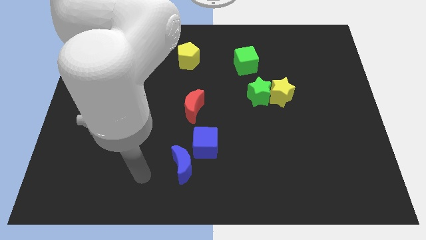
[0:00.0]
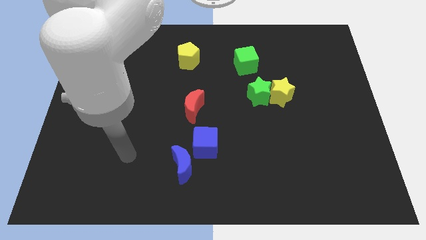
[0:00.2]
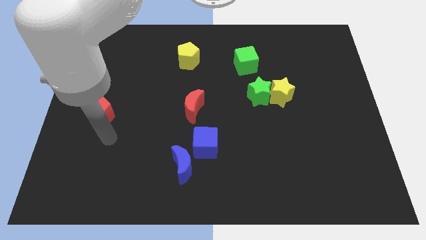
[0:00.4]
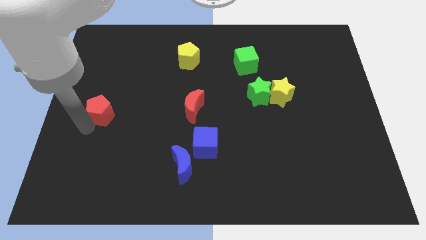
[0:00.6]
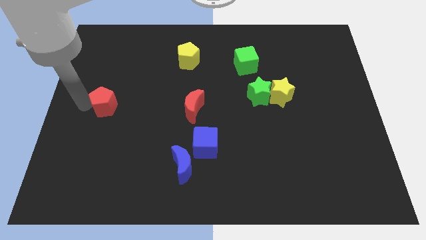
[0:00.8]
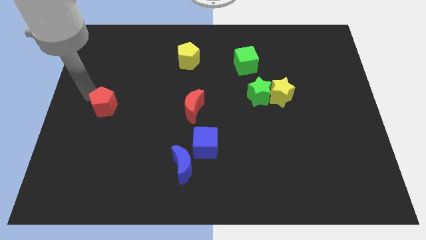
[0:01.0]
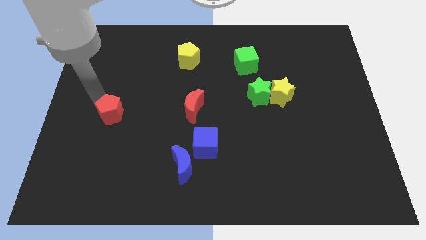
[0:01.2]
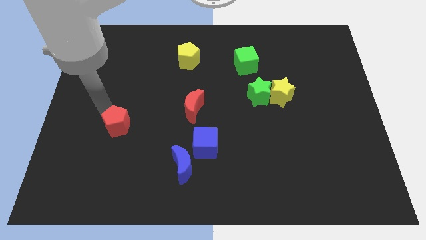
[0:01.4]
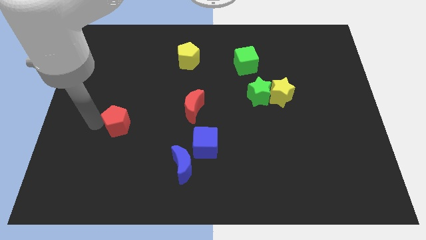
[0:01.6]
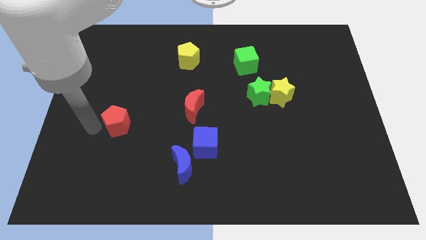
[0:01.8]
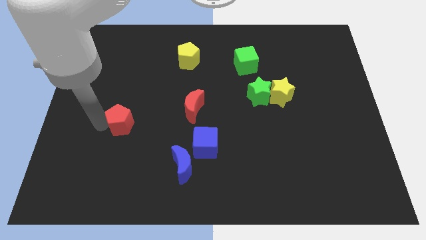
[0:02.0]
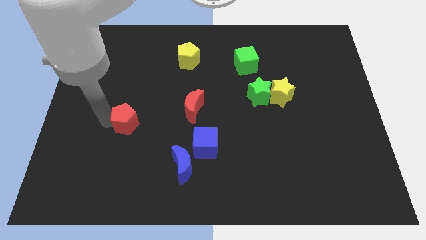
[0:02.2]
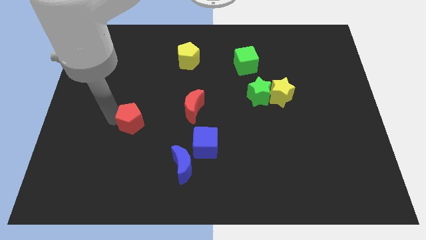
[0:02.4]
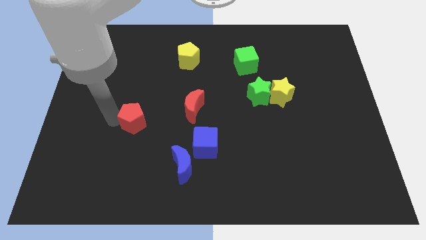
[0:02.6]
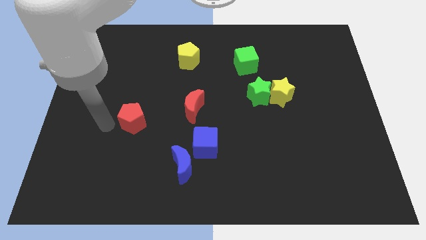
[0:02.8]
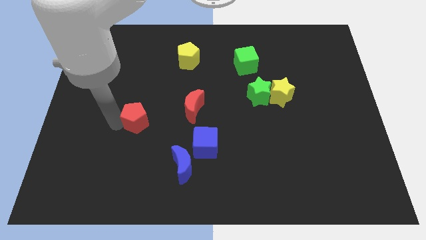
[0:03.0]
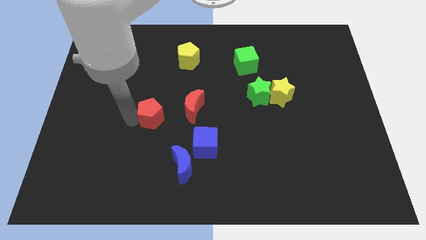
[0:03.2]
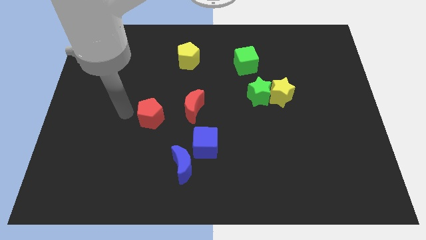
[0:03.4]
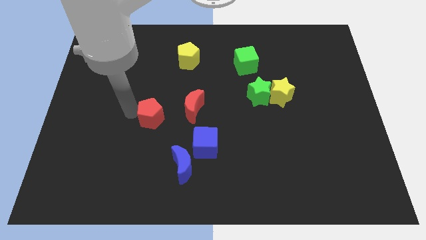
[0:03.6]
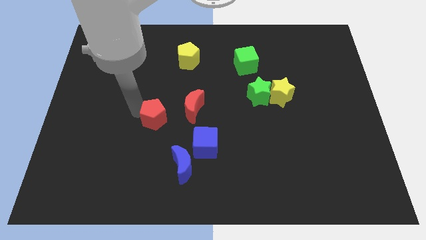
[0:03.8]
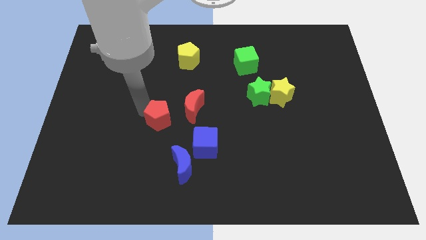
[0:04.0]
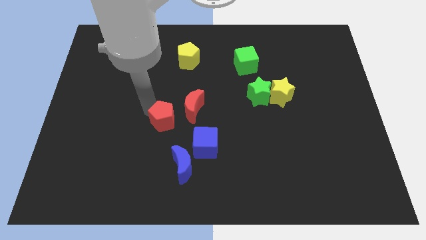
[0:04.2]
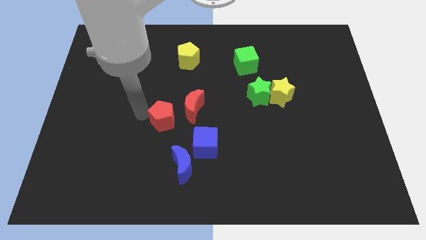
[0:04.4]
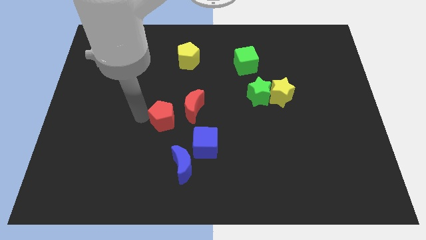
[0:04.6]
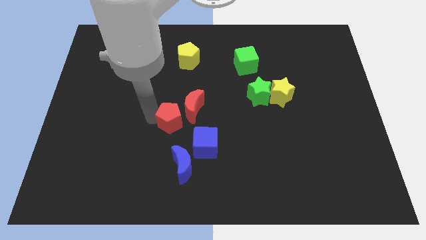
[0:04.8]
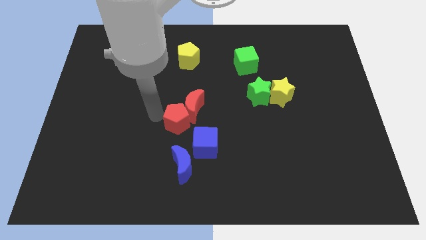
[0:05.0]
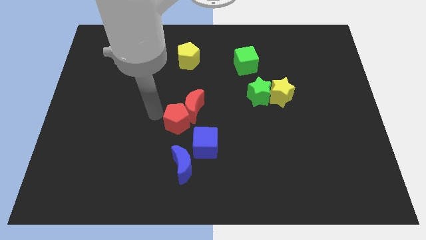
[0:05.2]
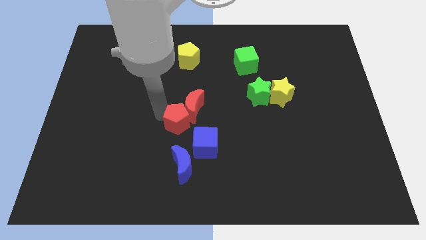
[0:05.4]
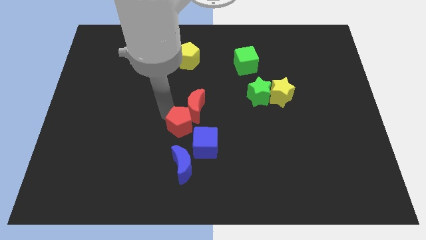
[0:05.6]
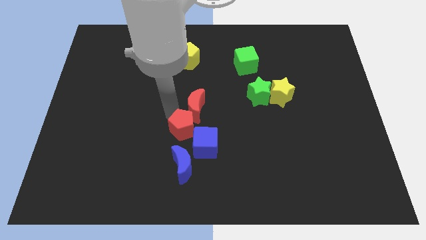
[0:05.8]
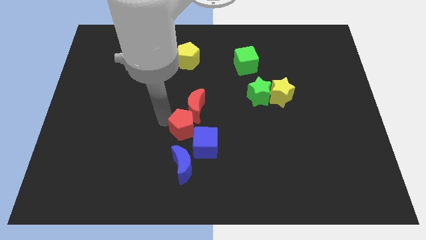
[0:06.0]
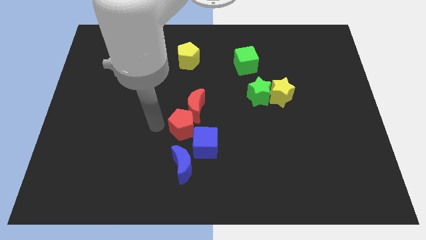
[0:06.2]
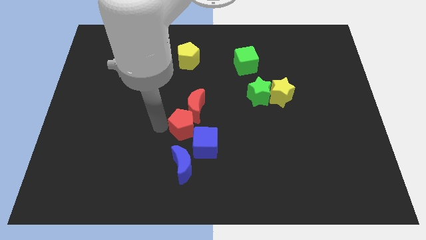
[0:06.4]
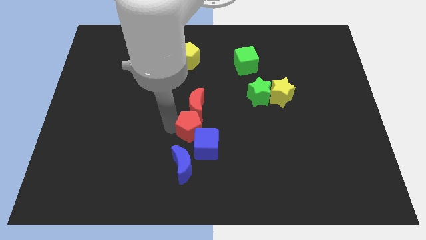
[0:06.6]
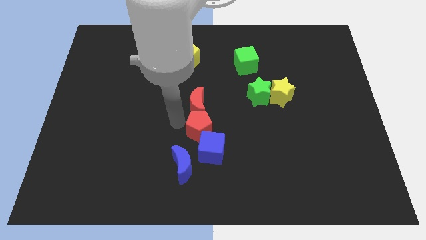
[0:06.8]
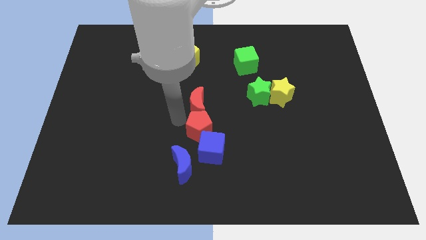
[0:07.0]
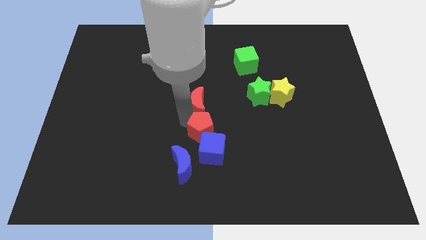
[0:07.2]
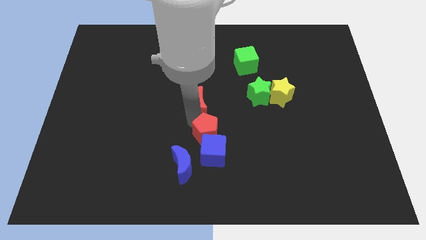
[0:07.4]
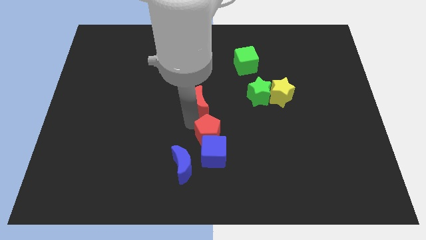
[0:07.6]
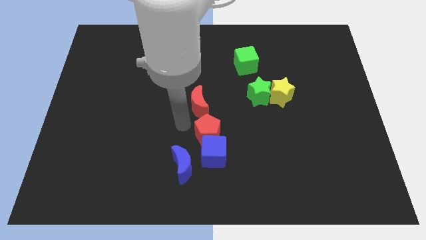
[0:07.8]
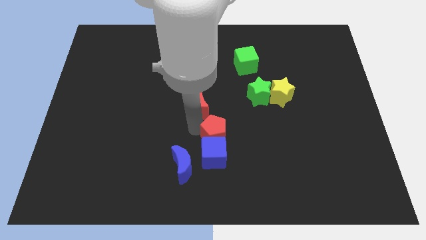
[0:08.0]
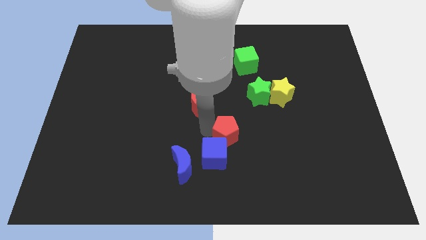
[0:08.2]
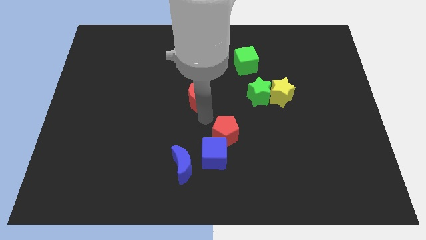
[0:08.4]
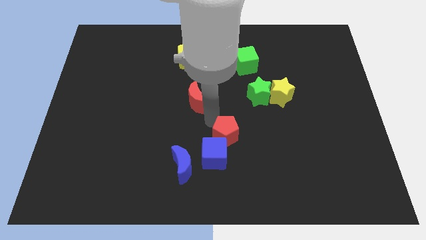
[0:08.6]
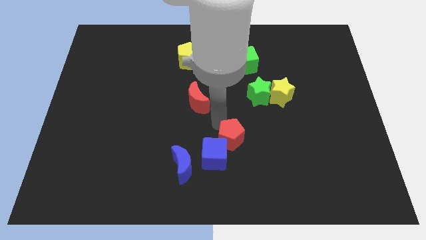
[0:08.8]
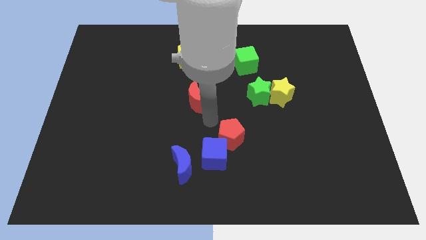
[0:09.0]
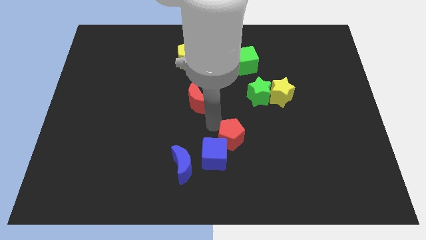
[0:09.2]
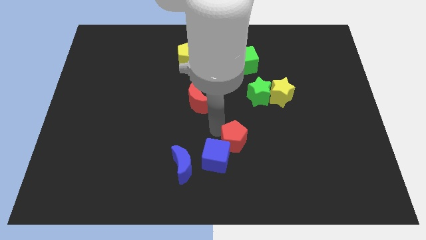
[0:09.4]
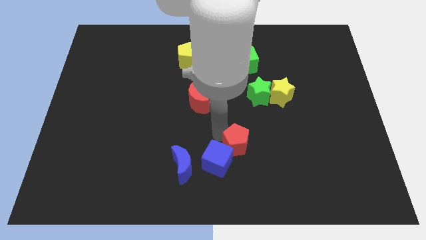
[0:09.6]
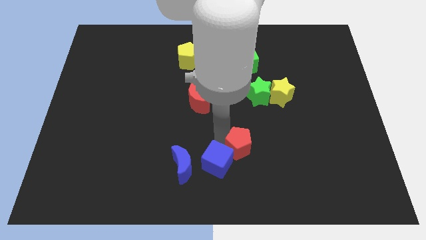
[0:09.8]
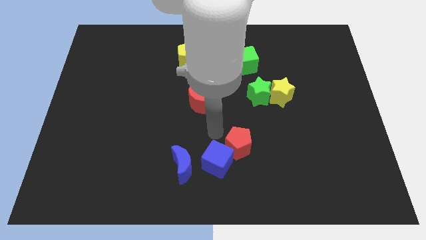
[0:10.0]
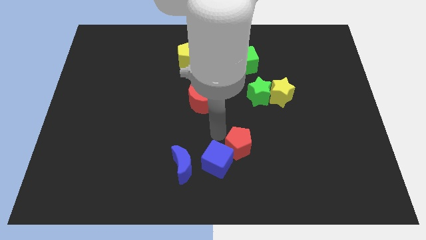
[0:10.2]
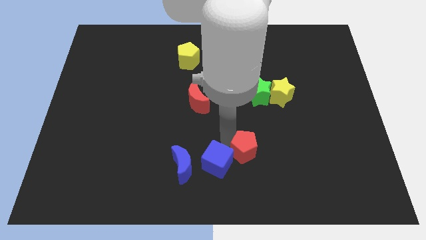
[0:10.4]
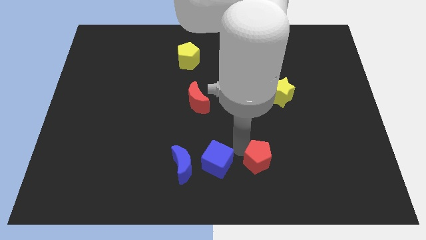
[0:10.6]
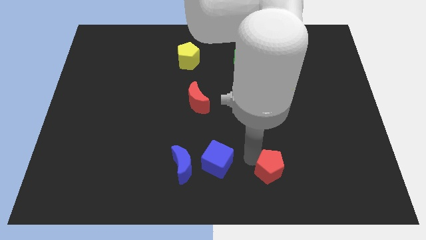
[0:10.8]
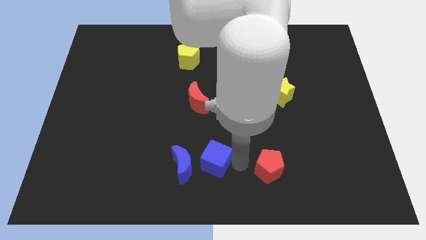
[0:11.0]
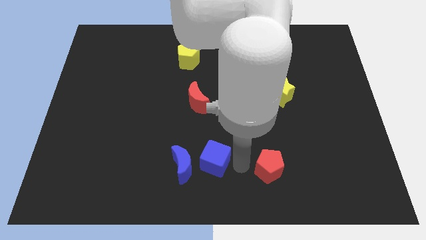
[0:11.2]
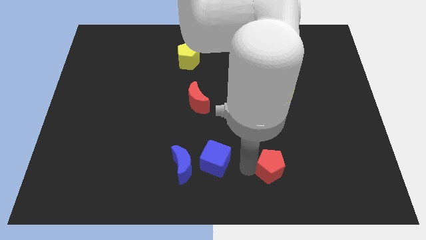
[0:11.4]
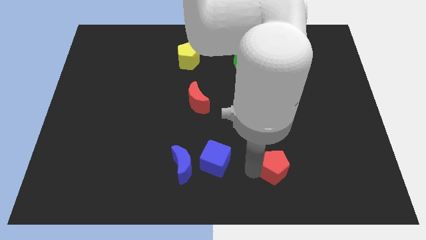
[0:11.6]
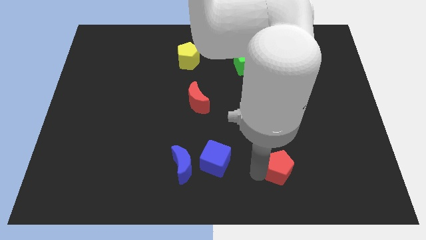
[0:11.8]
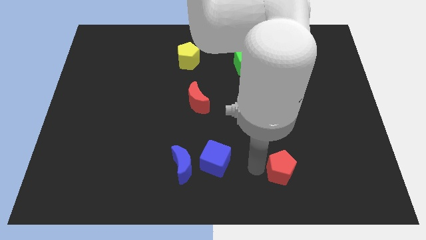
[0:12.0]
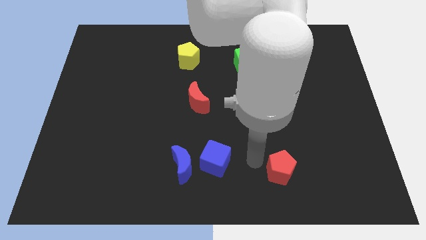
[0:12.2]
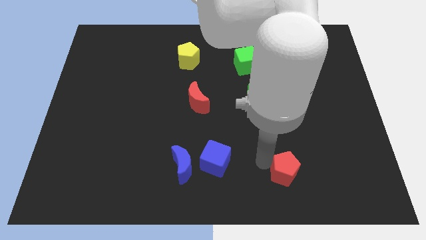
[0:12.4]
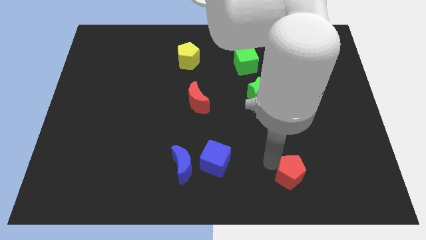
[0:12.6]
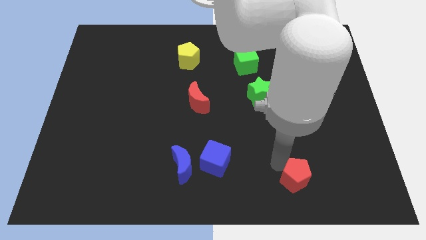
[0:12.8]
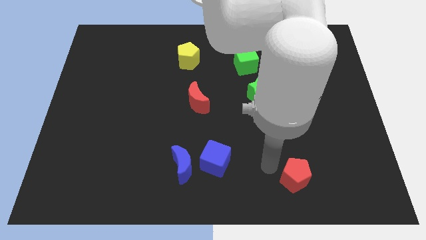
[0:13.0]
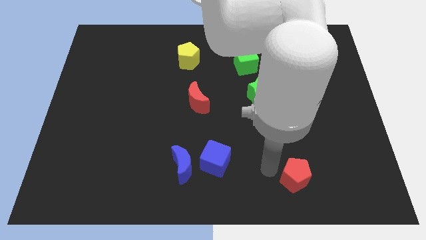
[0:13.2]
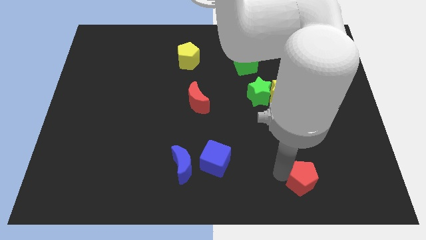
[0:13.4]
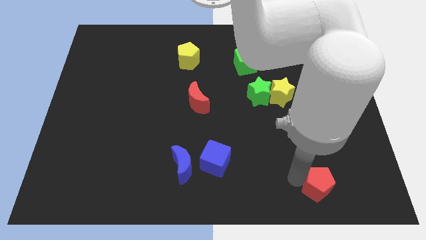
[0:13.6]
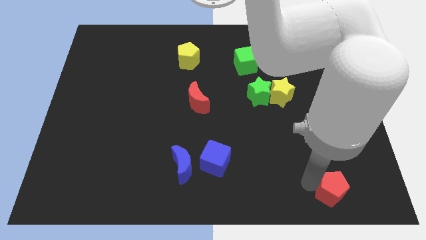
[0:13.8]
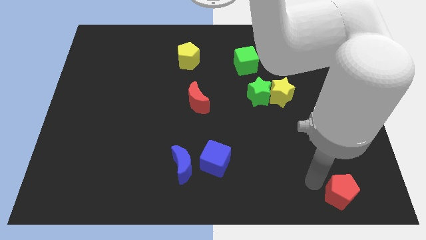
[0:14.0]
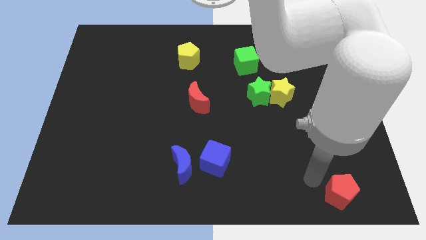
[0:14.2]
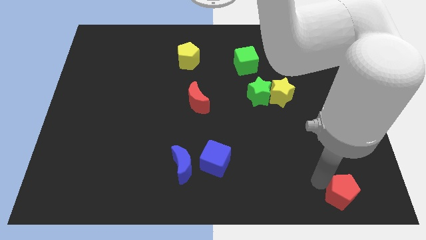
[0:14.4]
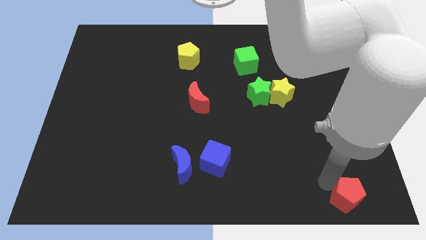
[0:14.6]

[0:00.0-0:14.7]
put the red pentagon to the bottom right of the board
